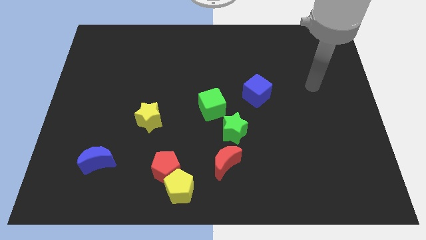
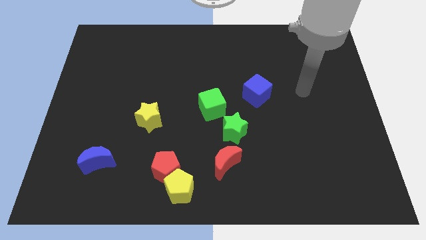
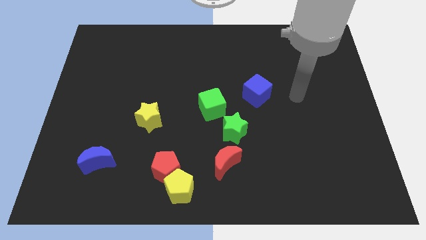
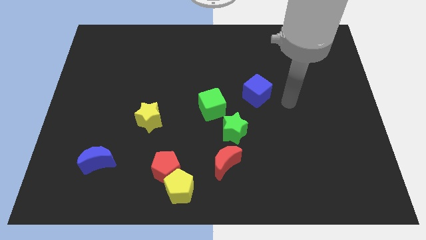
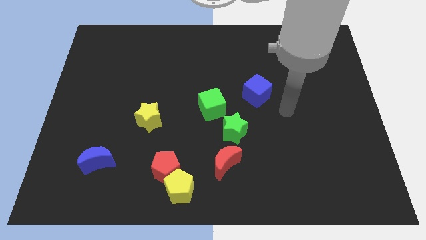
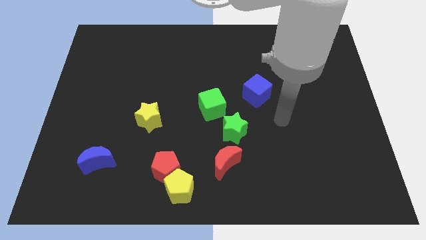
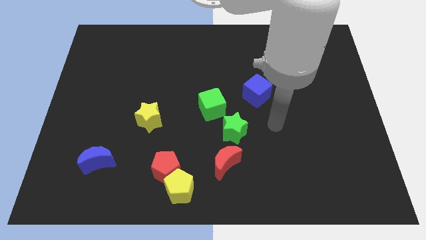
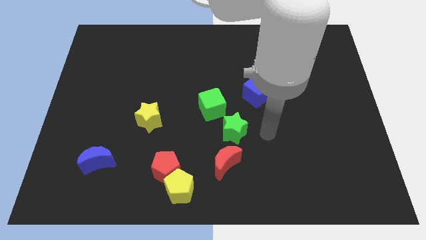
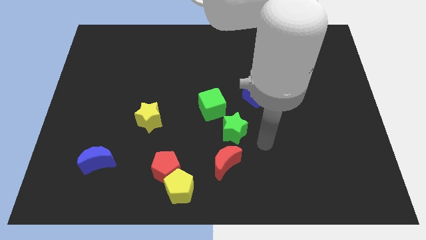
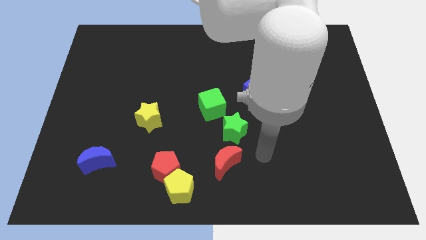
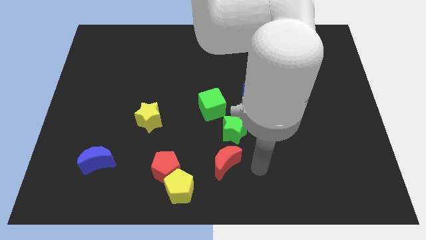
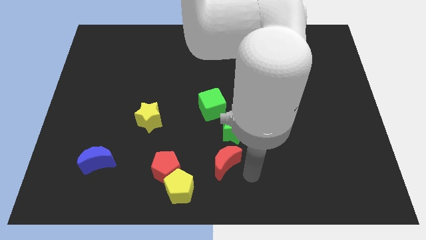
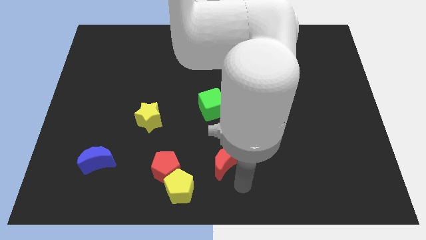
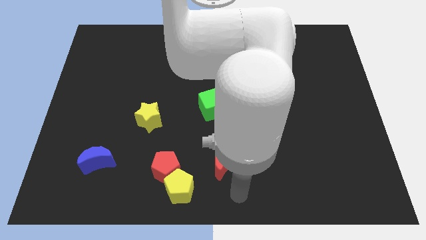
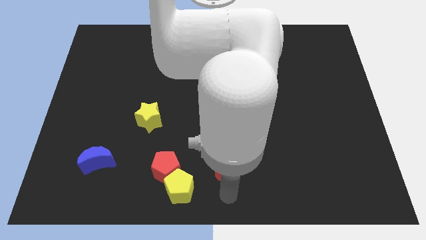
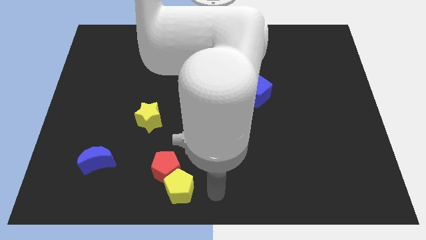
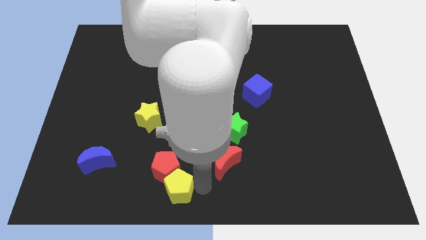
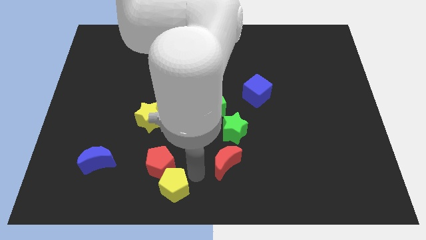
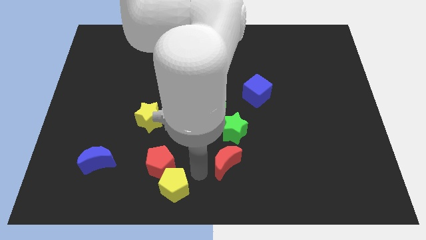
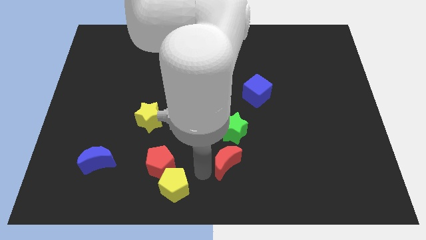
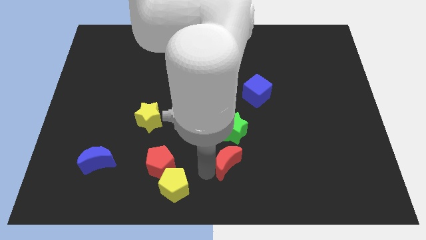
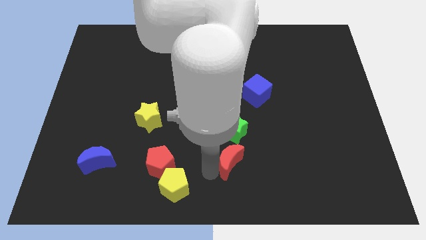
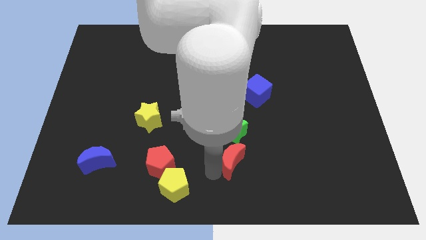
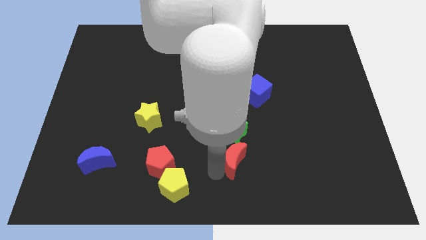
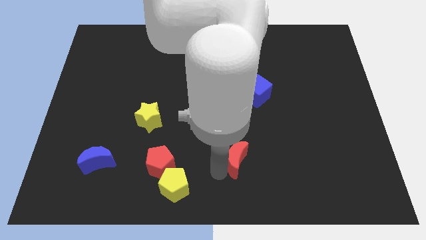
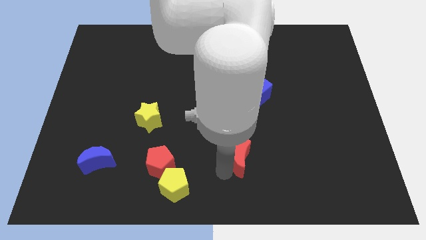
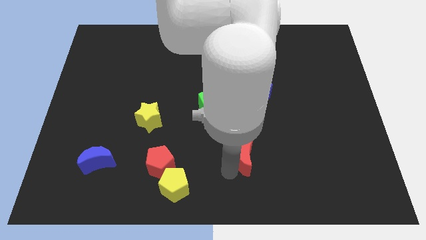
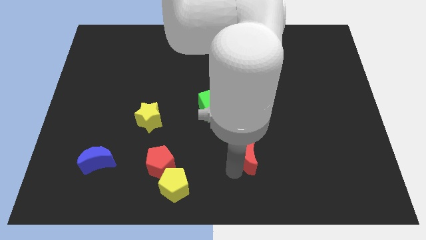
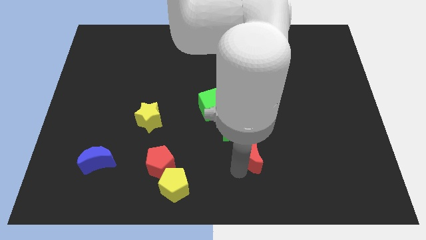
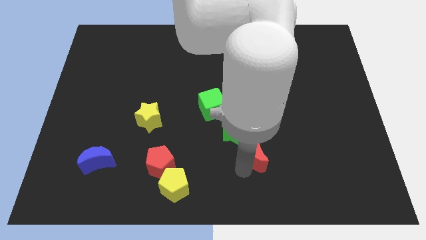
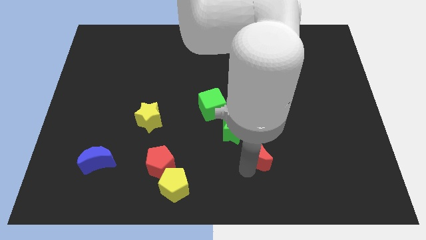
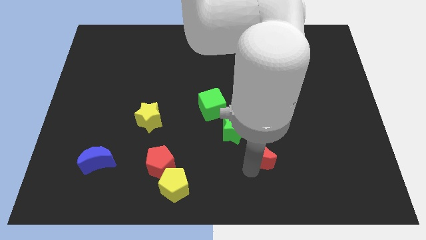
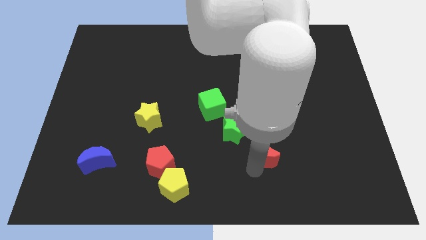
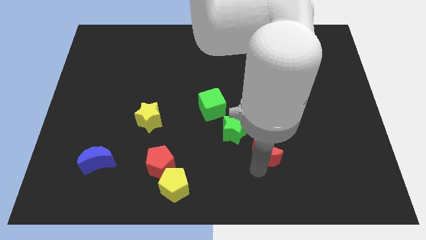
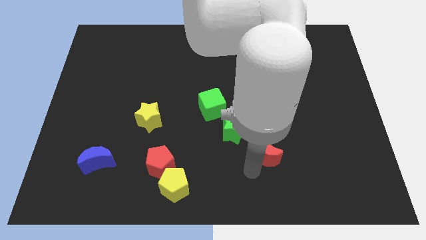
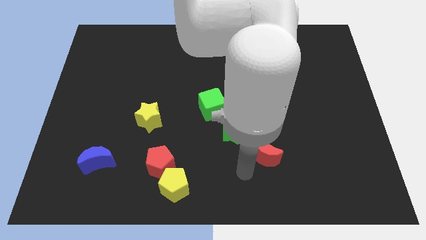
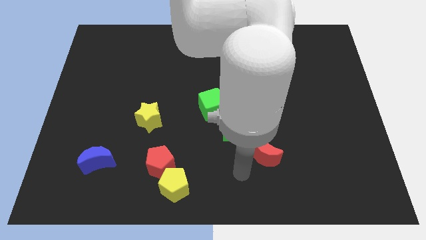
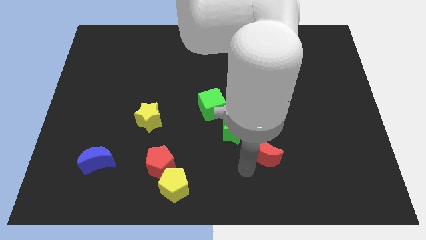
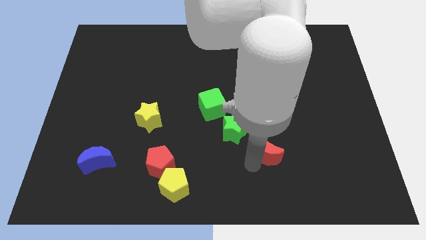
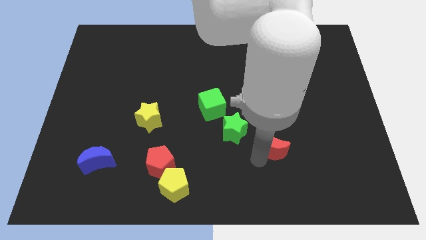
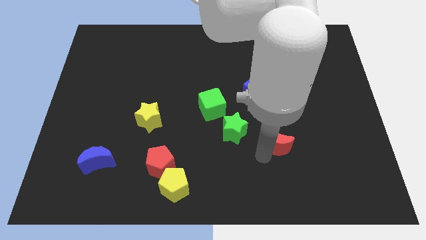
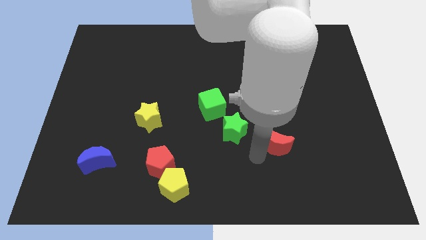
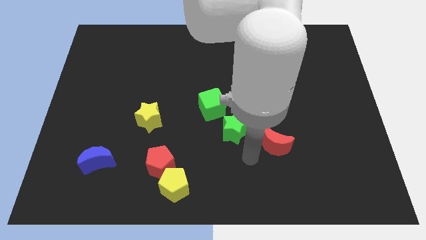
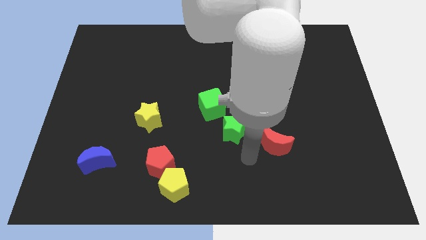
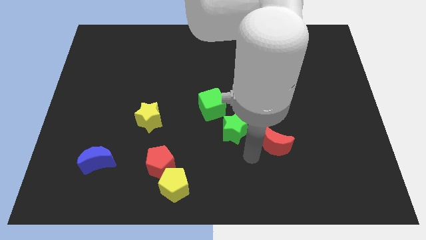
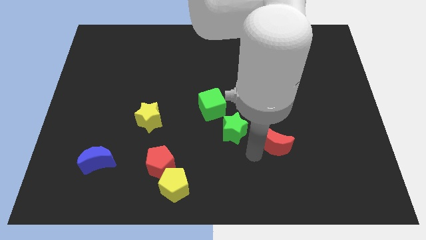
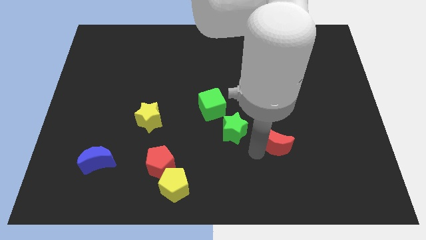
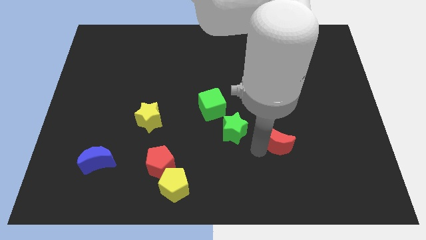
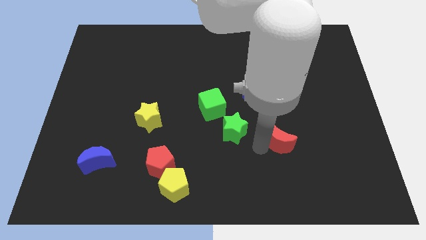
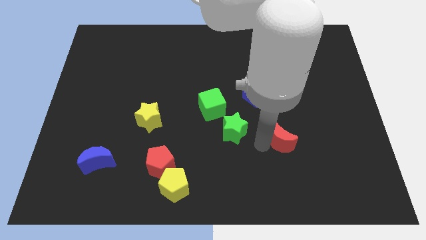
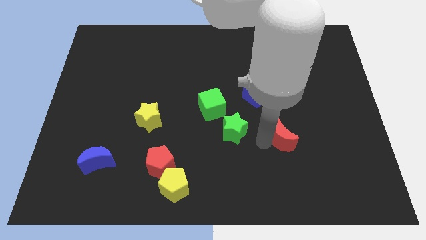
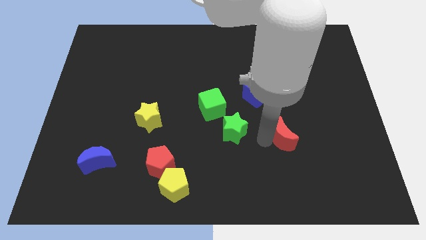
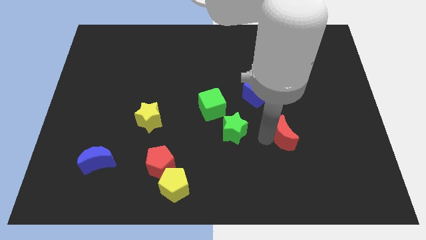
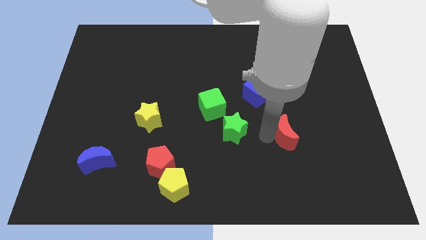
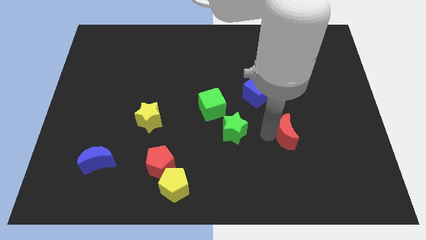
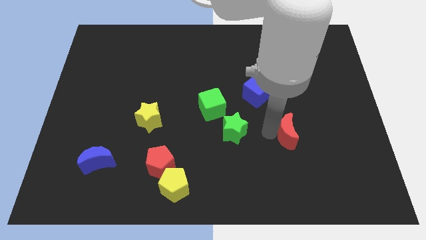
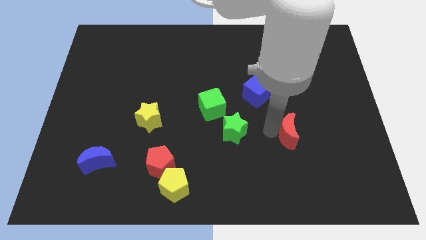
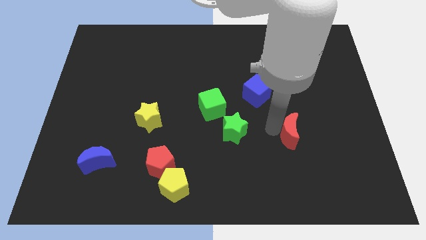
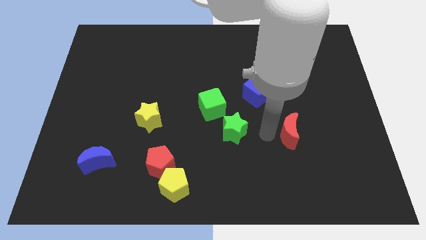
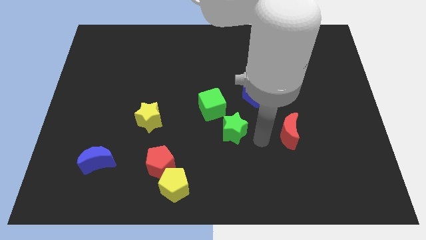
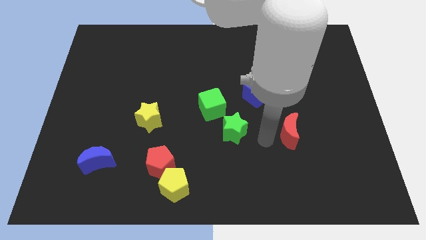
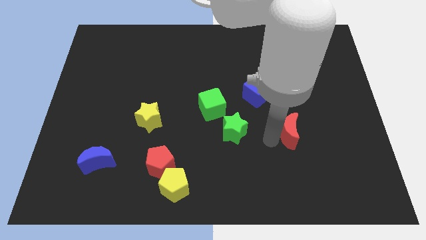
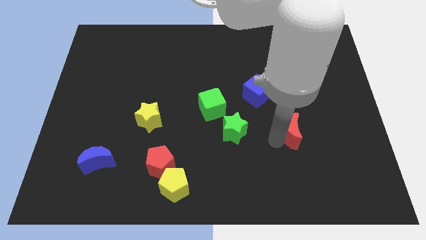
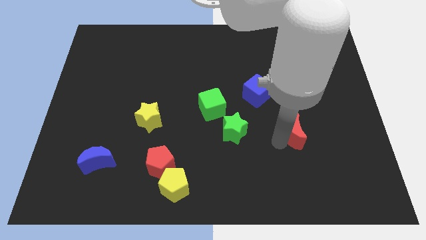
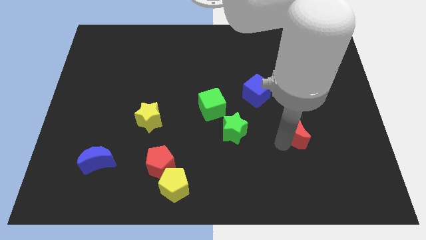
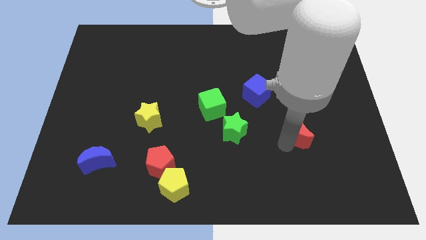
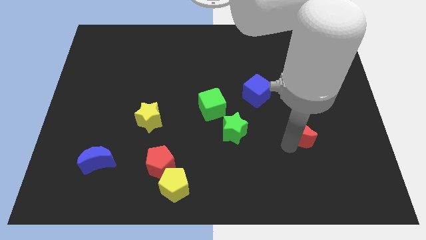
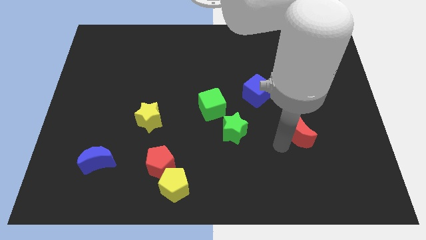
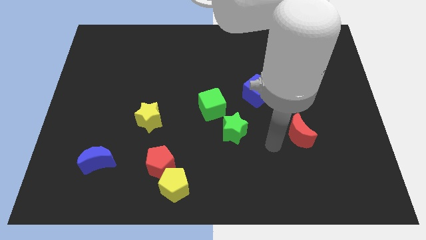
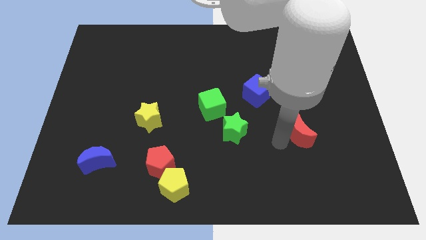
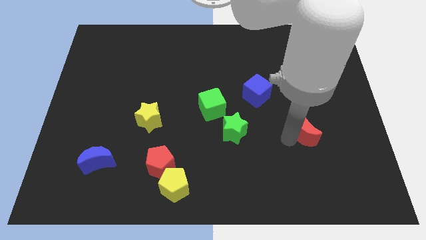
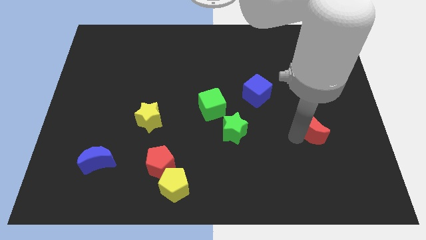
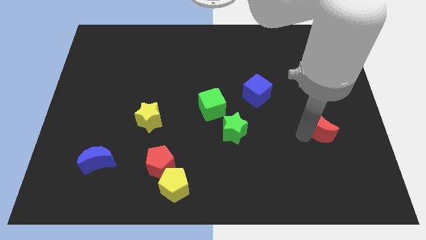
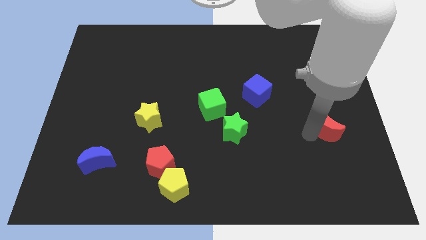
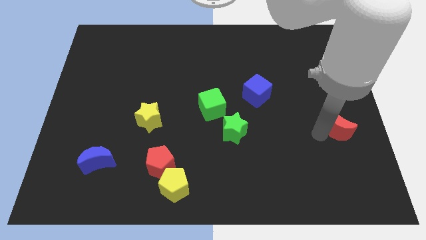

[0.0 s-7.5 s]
slide the red moon to the center right
